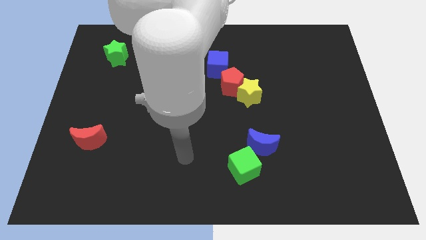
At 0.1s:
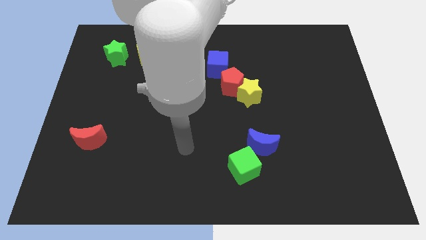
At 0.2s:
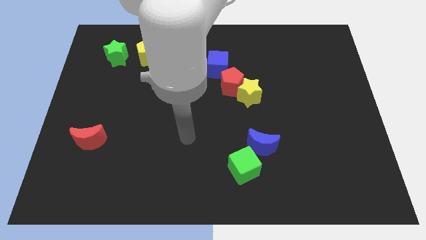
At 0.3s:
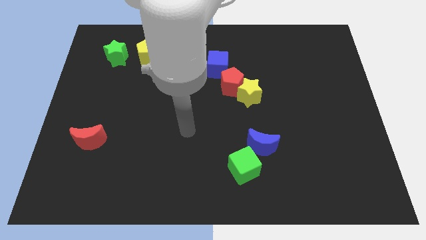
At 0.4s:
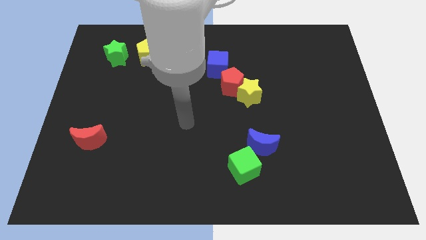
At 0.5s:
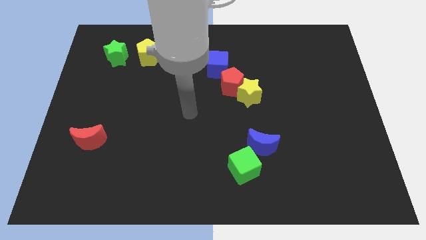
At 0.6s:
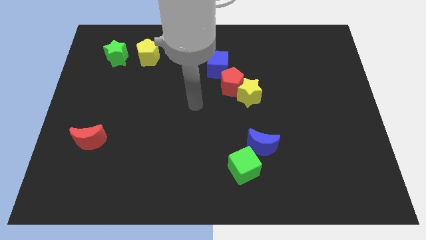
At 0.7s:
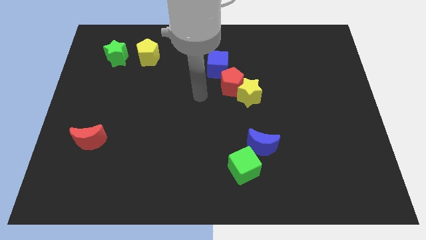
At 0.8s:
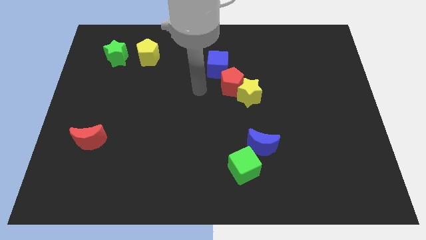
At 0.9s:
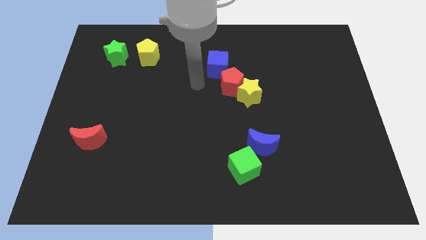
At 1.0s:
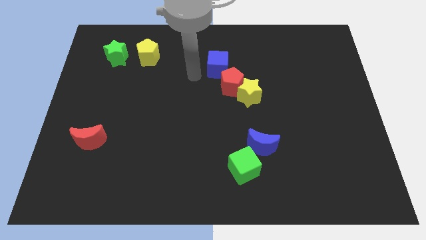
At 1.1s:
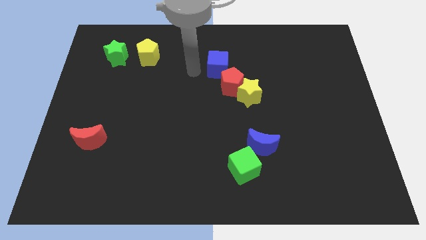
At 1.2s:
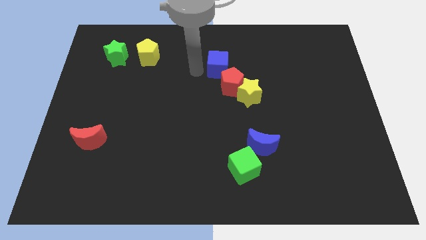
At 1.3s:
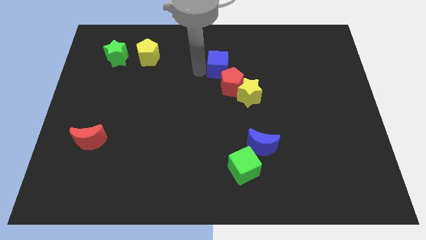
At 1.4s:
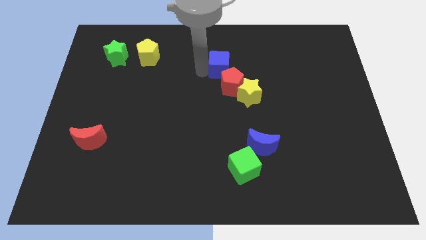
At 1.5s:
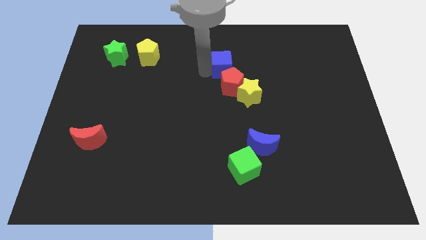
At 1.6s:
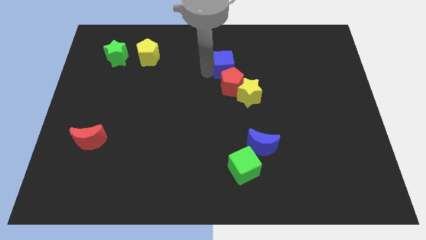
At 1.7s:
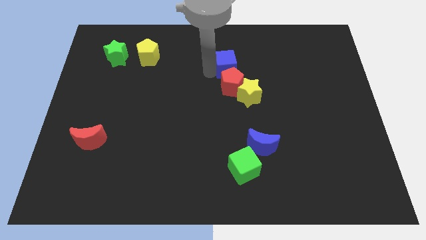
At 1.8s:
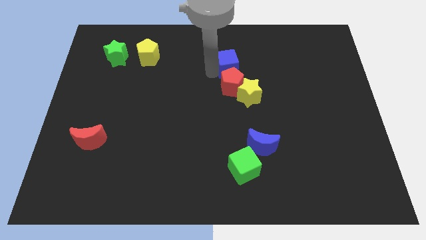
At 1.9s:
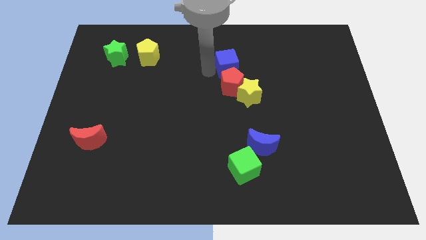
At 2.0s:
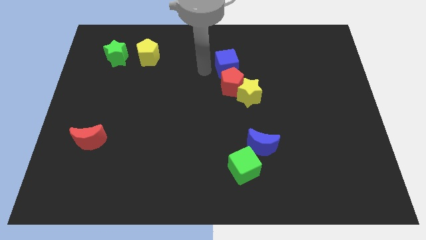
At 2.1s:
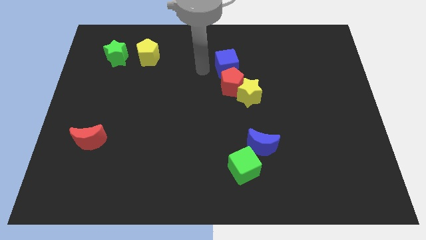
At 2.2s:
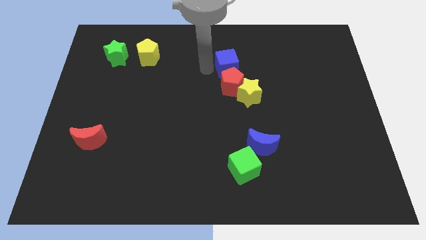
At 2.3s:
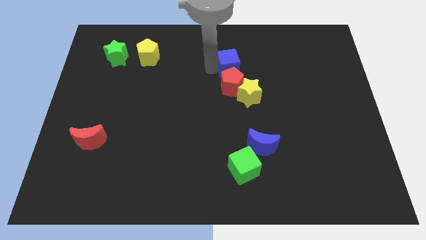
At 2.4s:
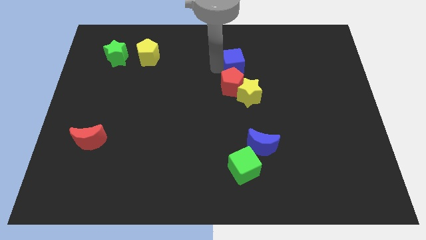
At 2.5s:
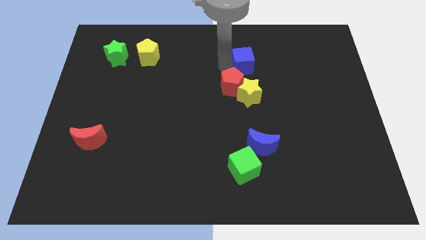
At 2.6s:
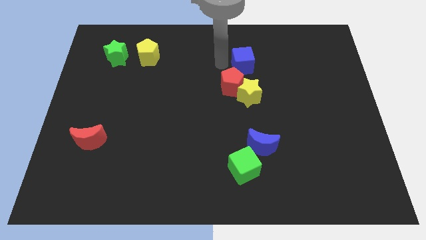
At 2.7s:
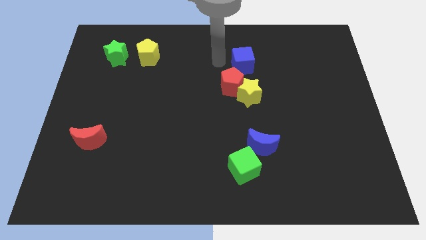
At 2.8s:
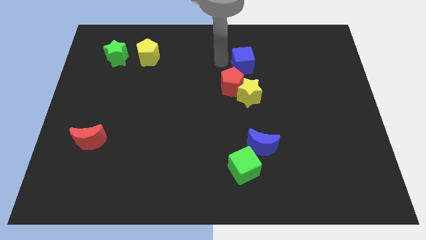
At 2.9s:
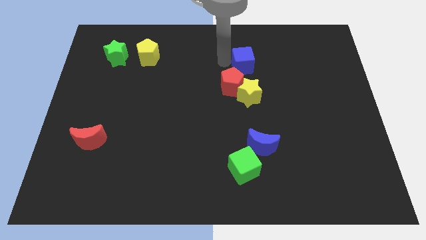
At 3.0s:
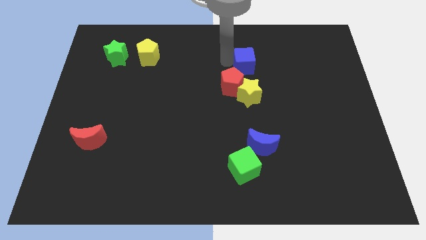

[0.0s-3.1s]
slide the blue cube somewhat right

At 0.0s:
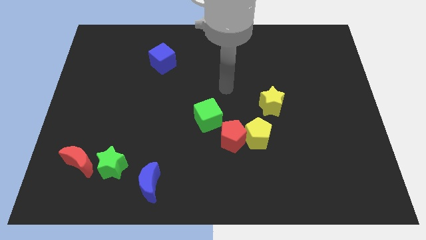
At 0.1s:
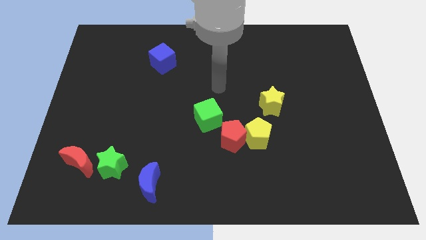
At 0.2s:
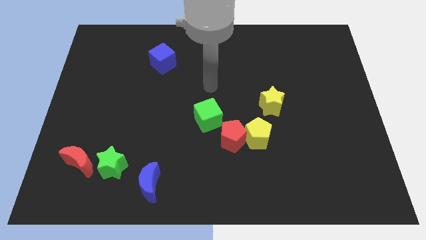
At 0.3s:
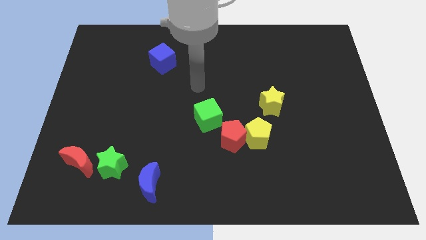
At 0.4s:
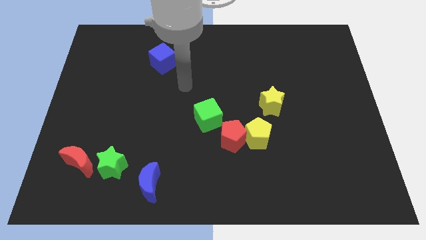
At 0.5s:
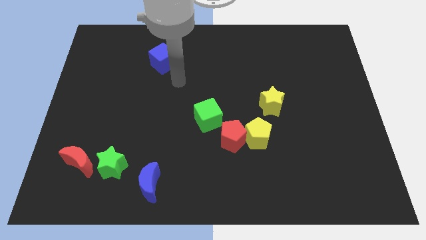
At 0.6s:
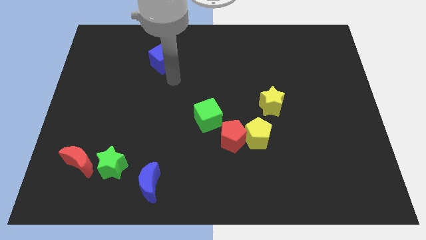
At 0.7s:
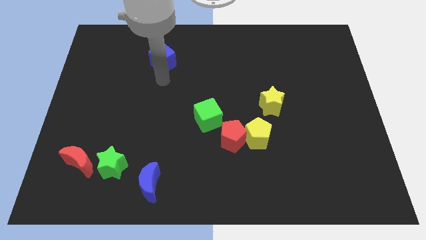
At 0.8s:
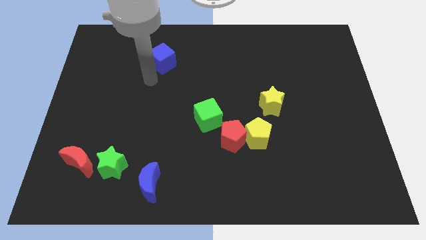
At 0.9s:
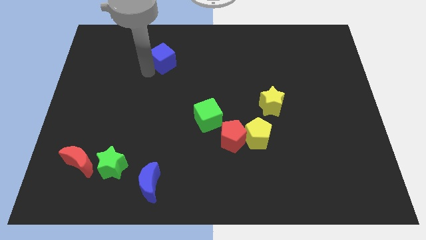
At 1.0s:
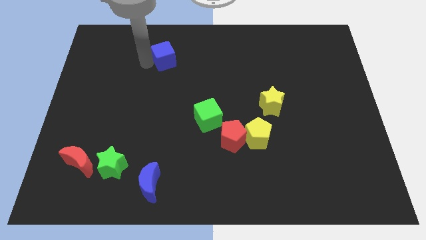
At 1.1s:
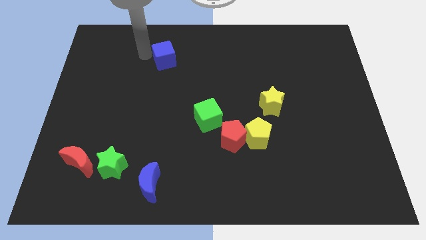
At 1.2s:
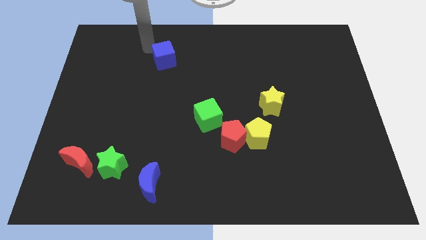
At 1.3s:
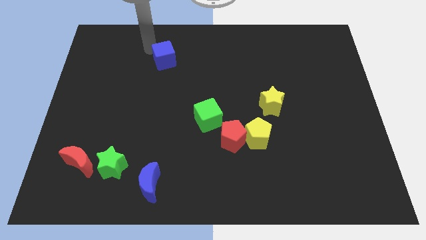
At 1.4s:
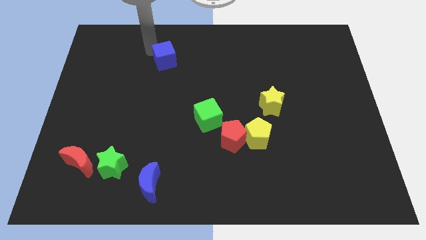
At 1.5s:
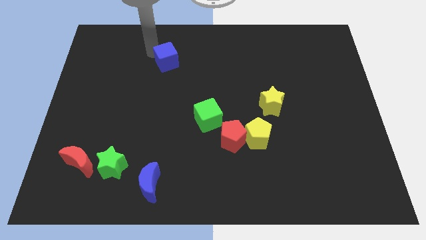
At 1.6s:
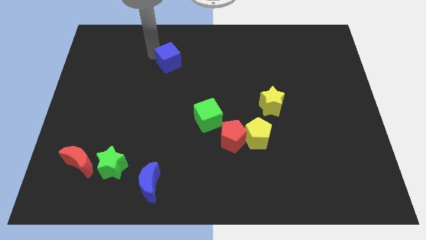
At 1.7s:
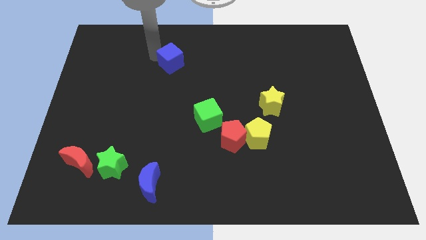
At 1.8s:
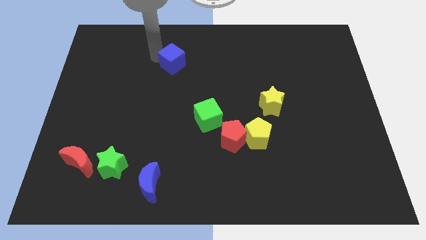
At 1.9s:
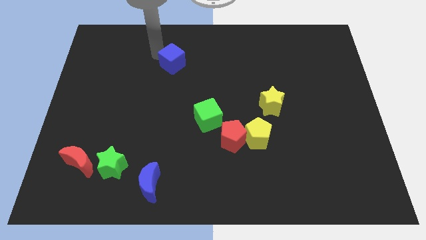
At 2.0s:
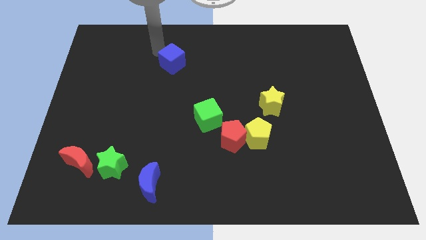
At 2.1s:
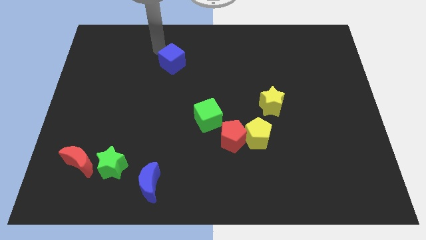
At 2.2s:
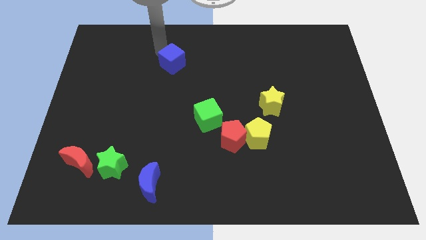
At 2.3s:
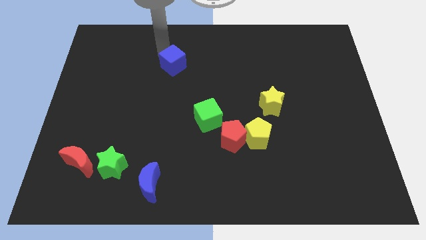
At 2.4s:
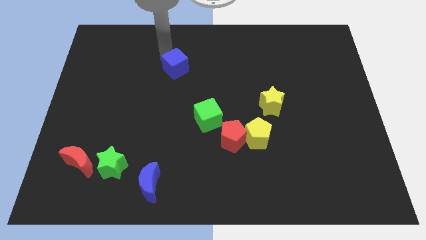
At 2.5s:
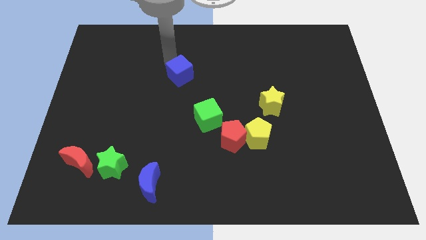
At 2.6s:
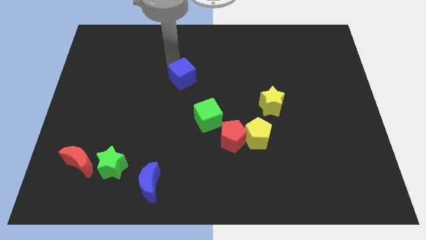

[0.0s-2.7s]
slide the blue cube downwards and then right a little

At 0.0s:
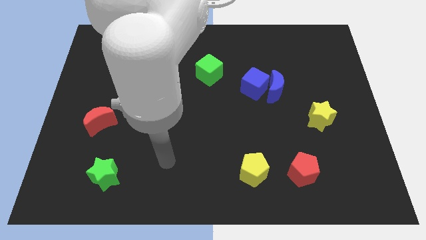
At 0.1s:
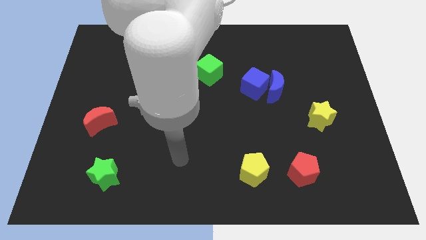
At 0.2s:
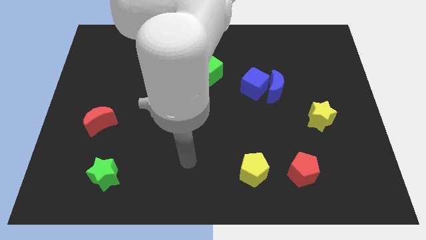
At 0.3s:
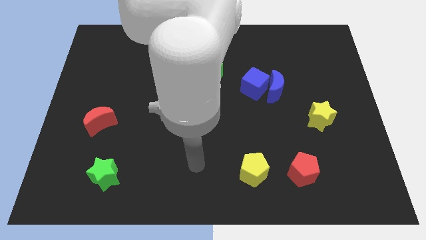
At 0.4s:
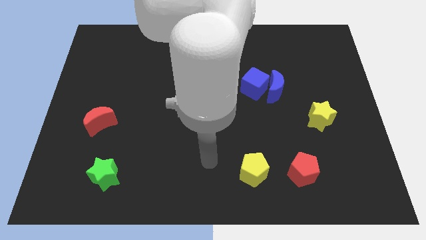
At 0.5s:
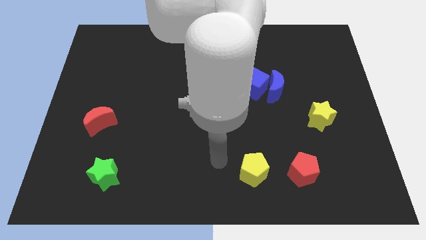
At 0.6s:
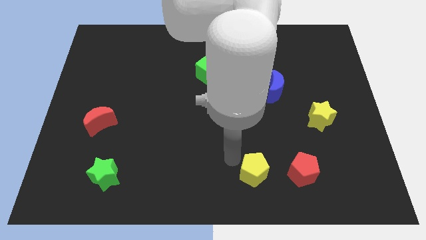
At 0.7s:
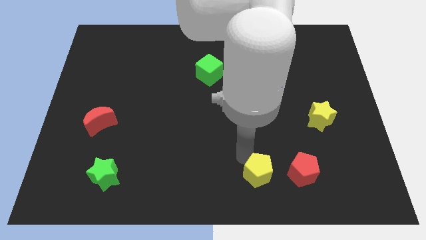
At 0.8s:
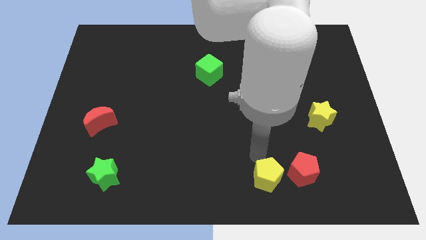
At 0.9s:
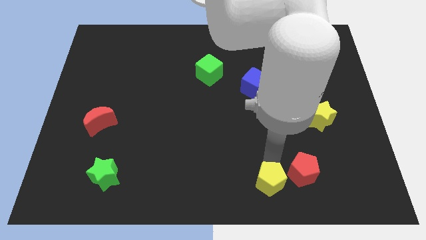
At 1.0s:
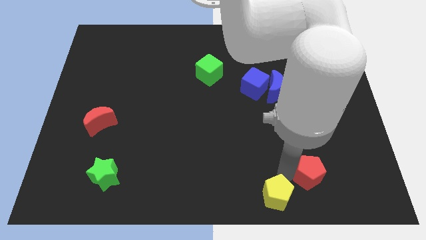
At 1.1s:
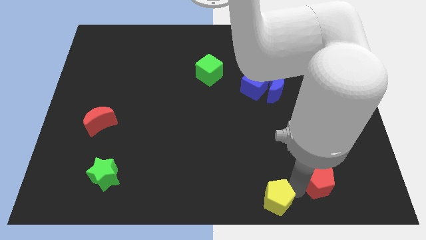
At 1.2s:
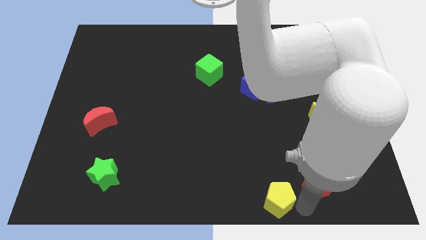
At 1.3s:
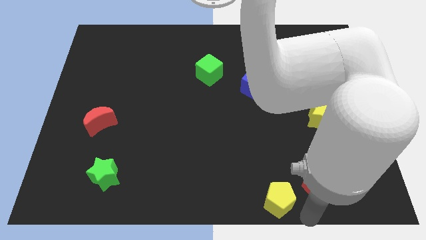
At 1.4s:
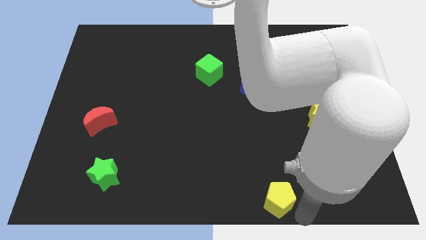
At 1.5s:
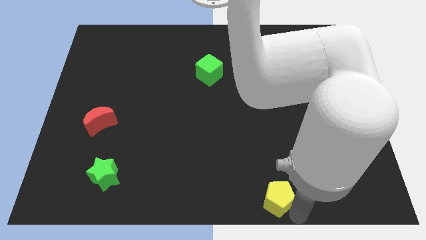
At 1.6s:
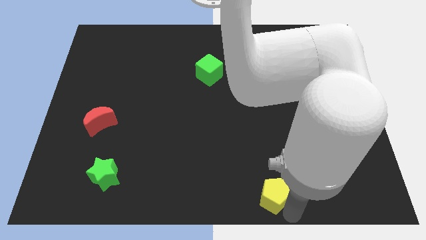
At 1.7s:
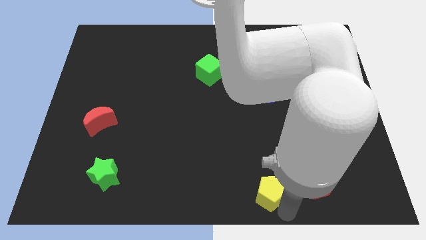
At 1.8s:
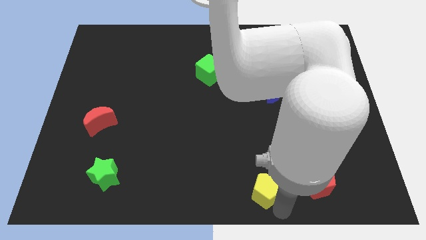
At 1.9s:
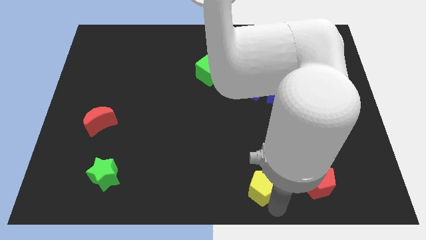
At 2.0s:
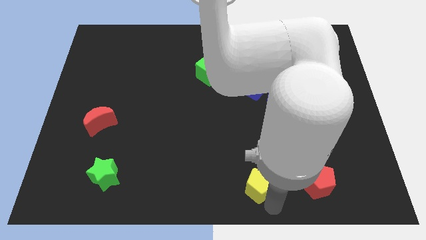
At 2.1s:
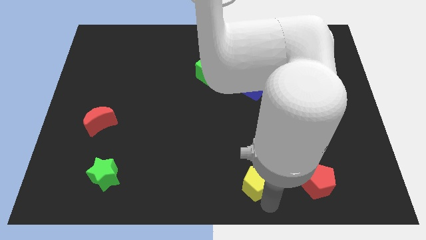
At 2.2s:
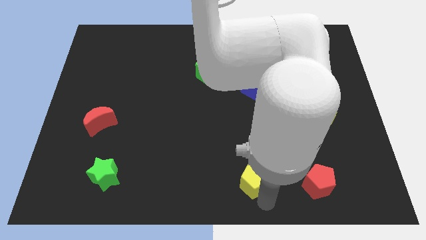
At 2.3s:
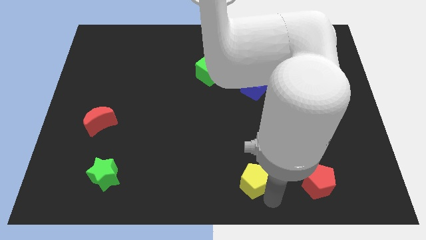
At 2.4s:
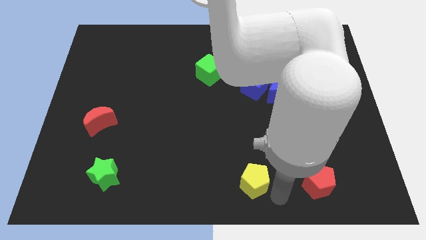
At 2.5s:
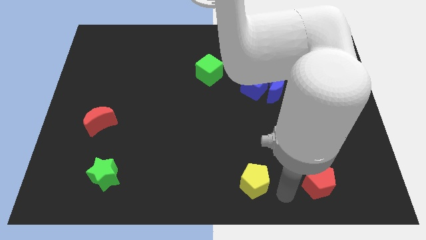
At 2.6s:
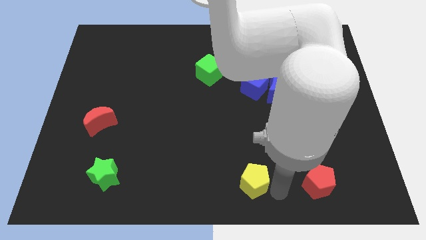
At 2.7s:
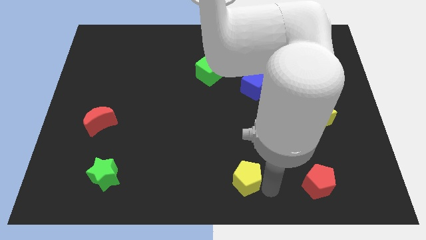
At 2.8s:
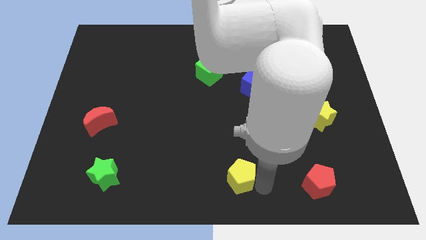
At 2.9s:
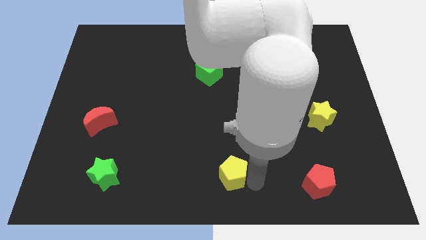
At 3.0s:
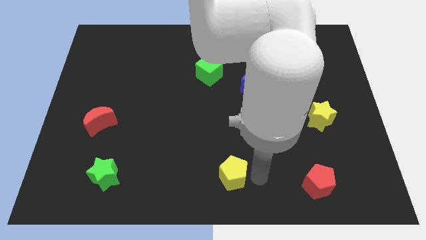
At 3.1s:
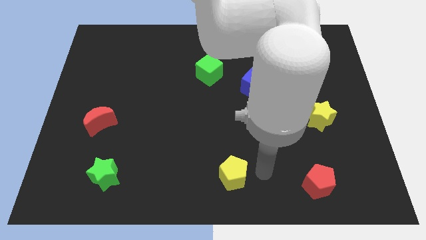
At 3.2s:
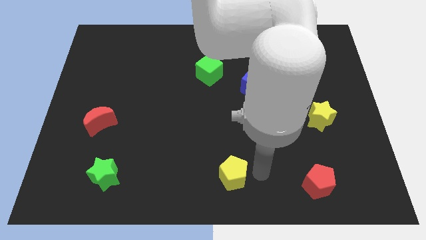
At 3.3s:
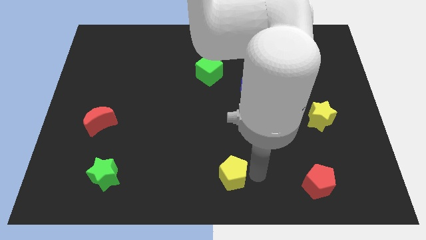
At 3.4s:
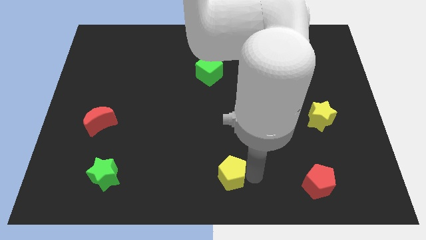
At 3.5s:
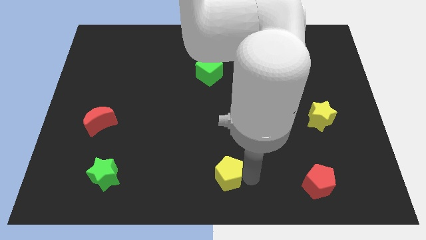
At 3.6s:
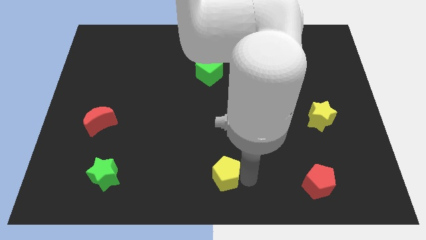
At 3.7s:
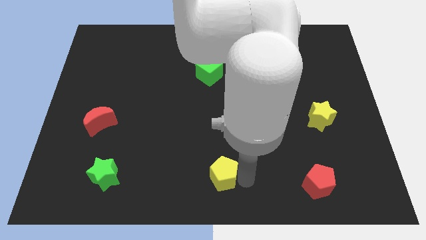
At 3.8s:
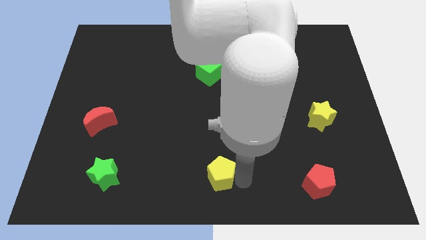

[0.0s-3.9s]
slide the yellow pentagon somewhat to the left
